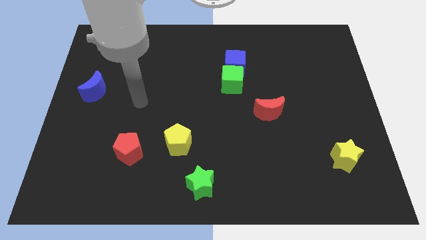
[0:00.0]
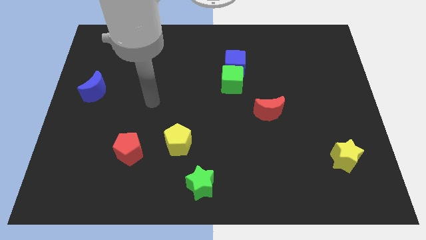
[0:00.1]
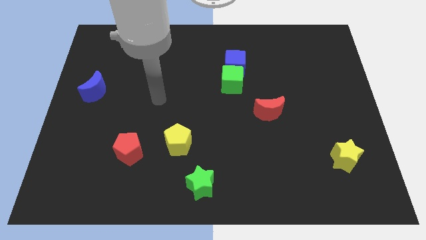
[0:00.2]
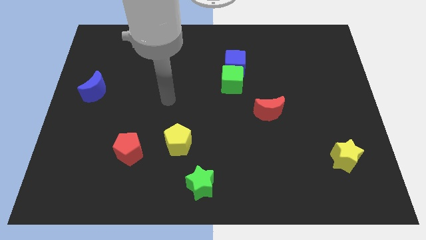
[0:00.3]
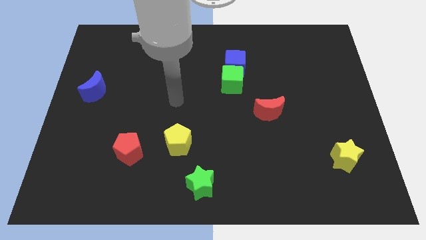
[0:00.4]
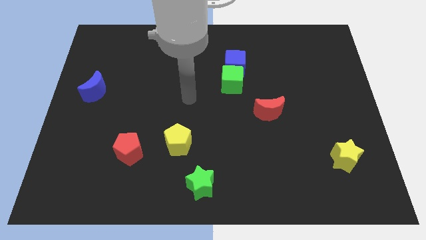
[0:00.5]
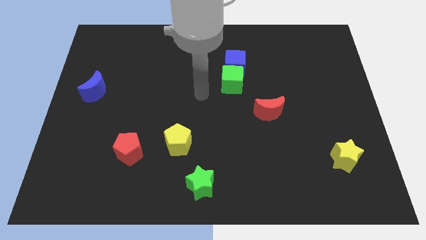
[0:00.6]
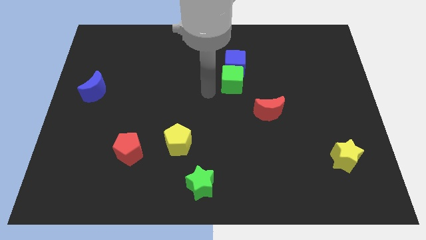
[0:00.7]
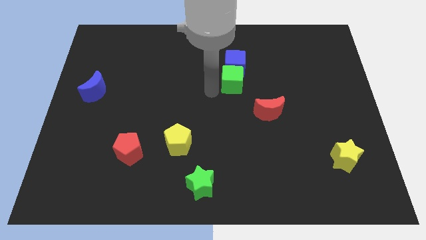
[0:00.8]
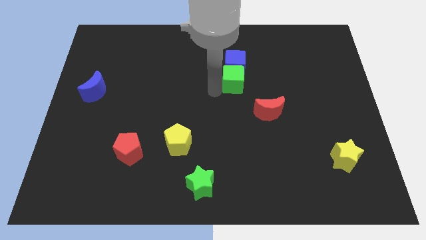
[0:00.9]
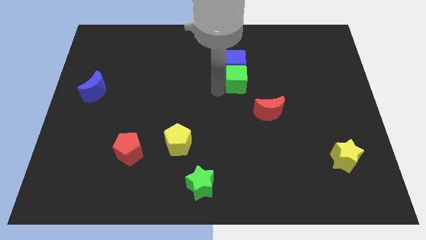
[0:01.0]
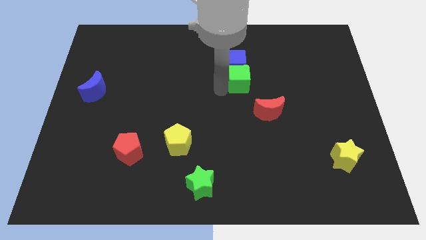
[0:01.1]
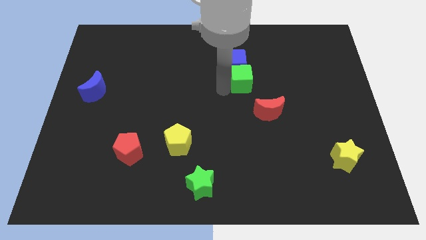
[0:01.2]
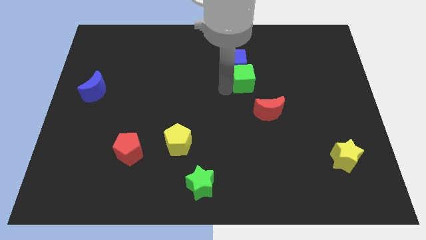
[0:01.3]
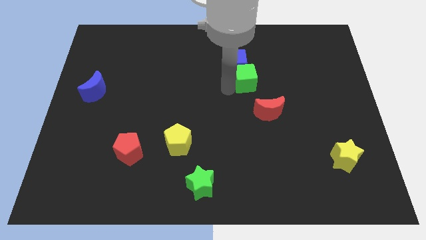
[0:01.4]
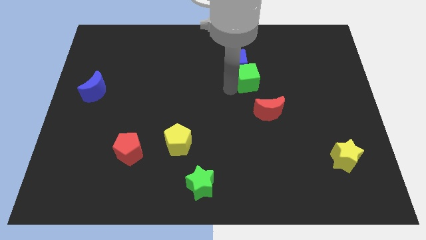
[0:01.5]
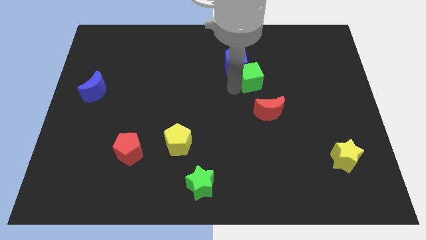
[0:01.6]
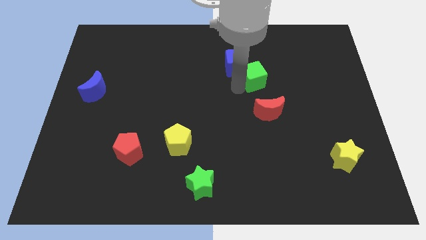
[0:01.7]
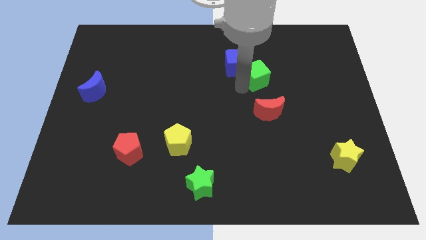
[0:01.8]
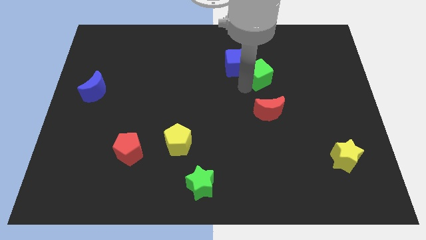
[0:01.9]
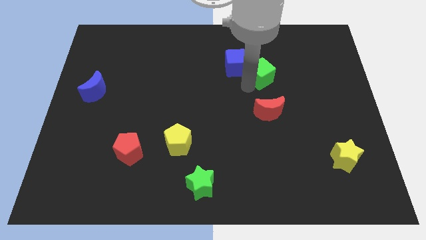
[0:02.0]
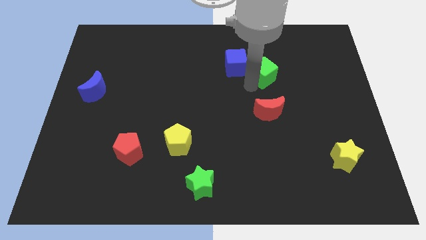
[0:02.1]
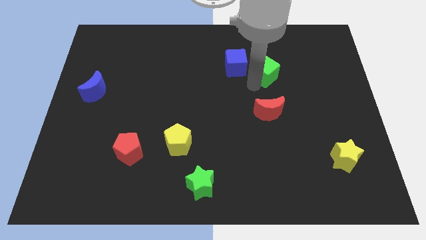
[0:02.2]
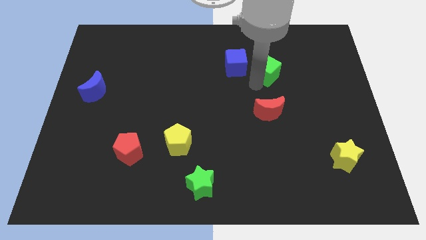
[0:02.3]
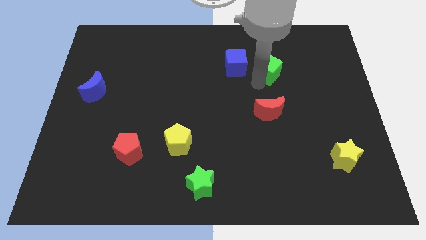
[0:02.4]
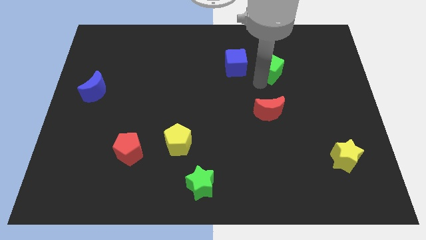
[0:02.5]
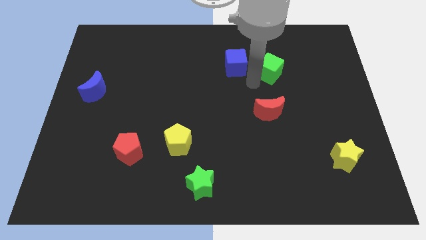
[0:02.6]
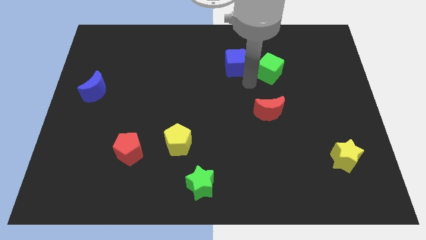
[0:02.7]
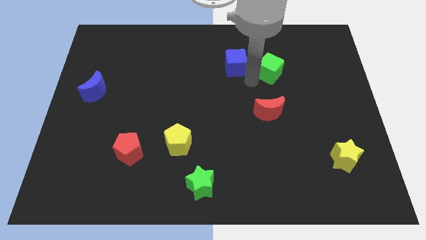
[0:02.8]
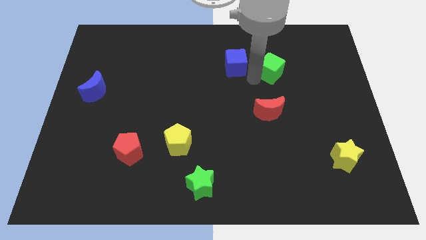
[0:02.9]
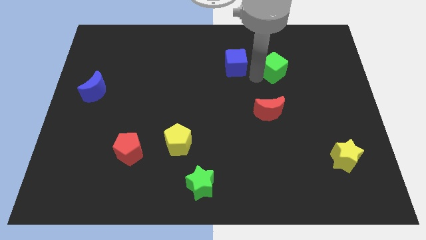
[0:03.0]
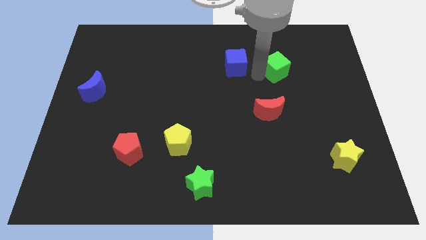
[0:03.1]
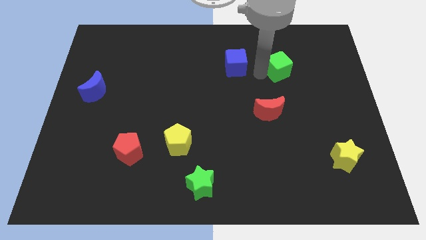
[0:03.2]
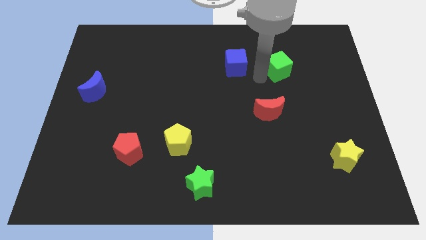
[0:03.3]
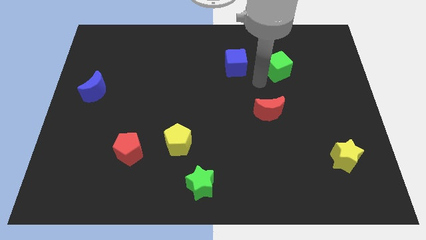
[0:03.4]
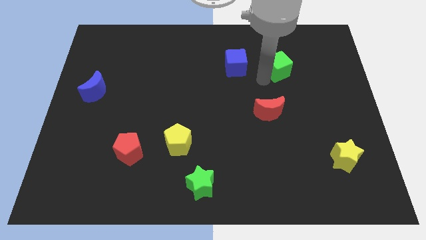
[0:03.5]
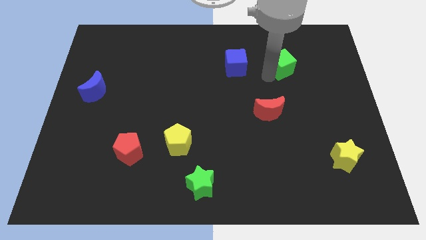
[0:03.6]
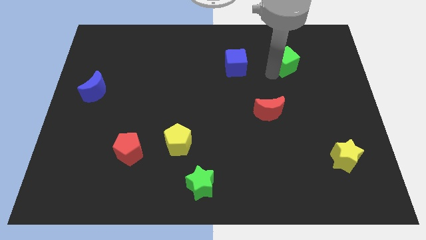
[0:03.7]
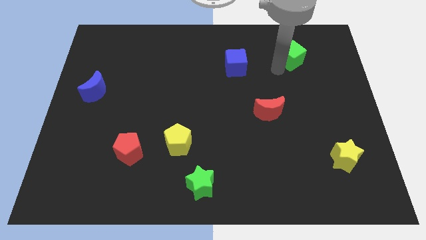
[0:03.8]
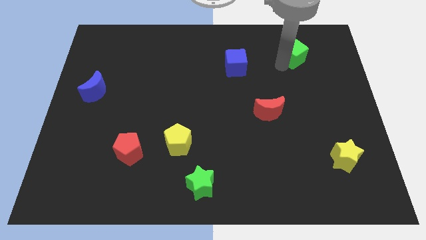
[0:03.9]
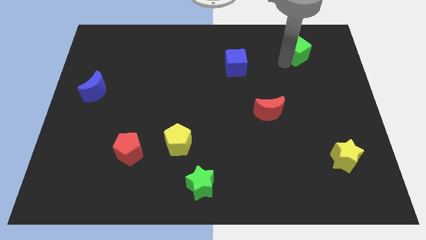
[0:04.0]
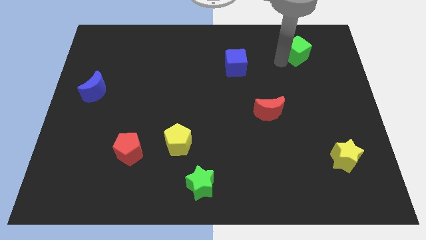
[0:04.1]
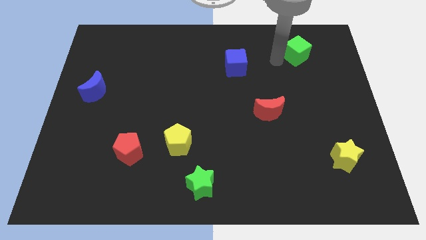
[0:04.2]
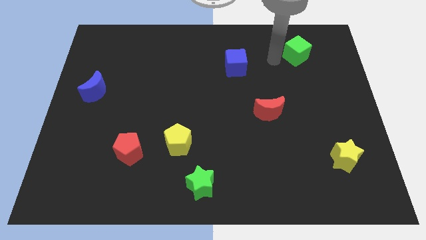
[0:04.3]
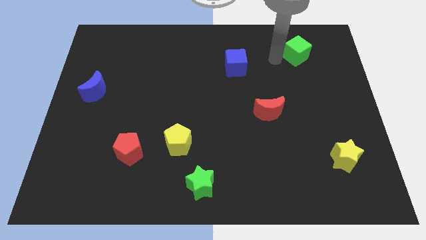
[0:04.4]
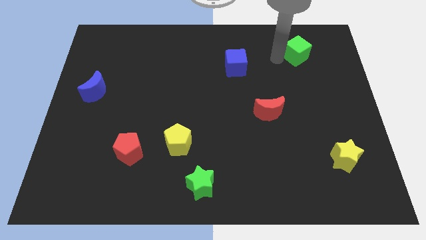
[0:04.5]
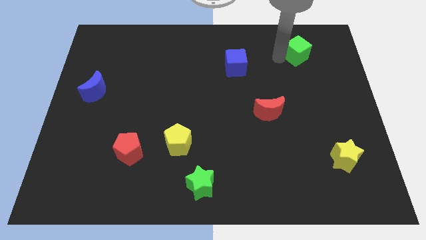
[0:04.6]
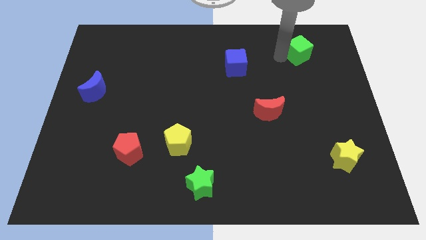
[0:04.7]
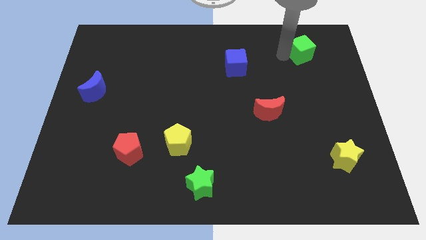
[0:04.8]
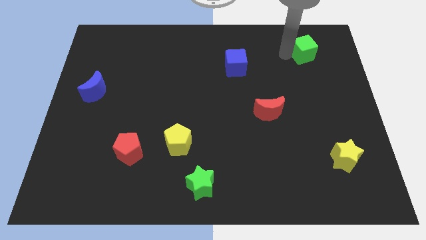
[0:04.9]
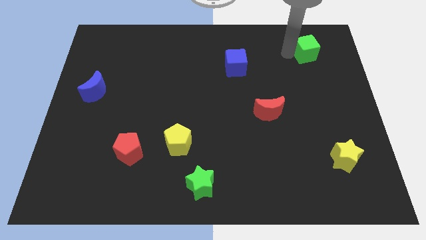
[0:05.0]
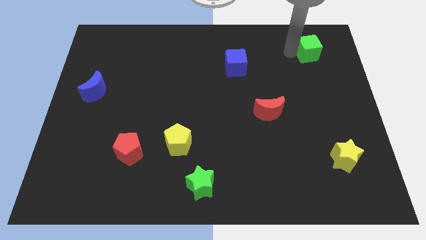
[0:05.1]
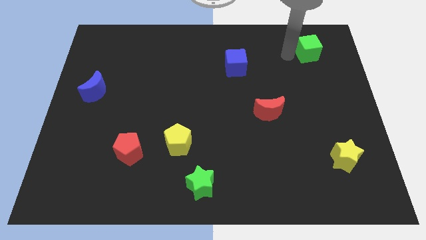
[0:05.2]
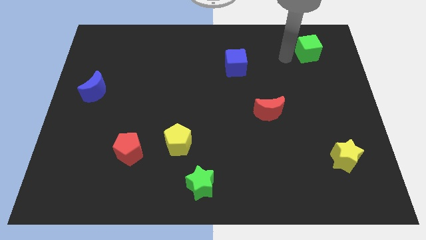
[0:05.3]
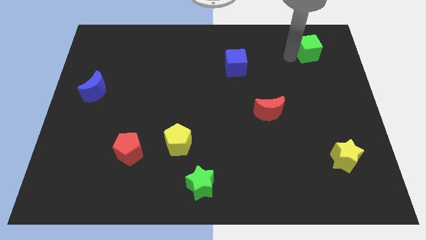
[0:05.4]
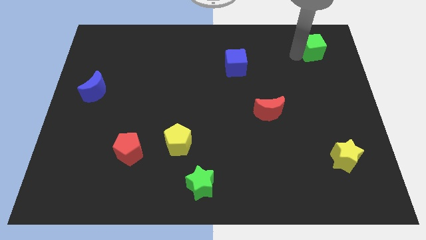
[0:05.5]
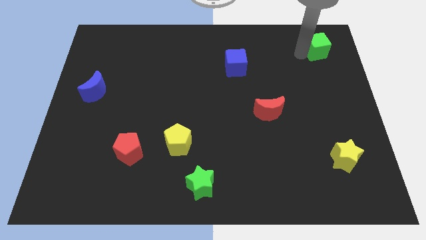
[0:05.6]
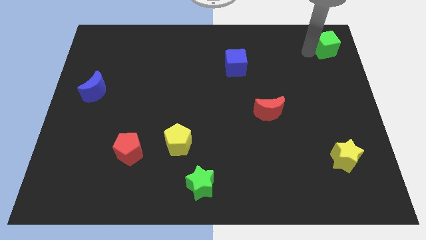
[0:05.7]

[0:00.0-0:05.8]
slide the green cube to the top right of the board

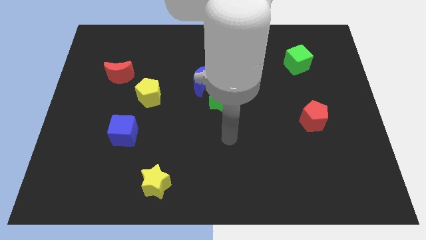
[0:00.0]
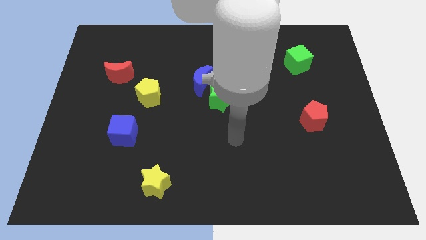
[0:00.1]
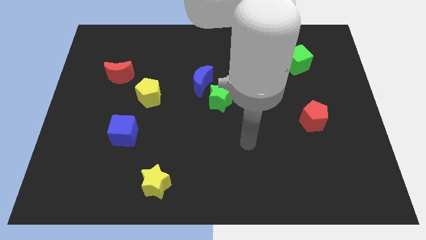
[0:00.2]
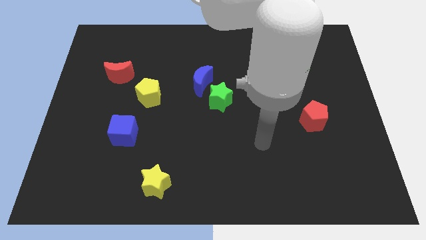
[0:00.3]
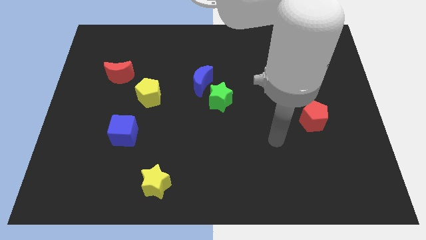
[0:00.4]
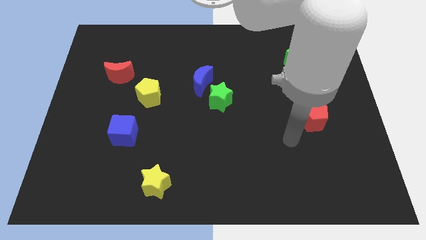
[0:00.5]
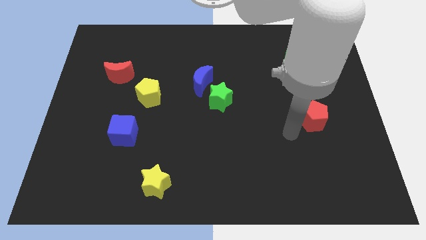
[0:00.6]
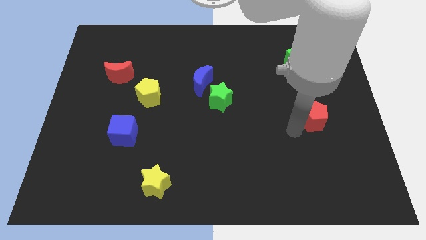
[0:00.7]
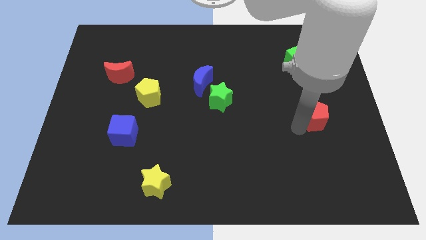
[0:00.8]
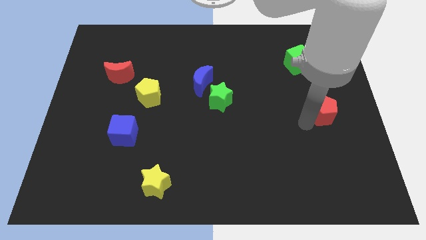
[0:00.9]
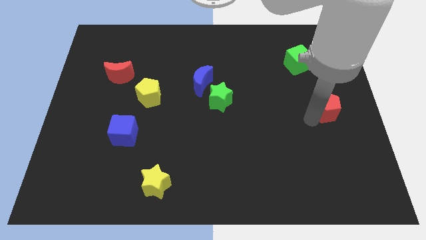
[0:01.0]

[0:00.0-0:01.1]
put the red pentagon to the center right
